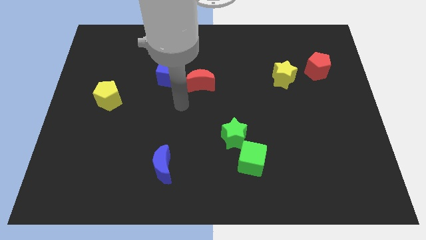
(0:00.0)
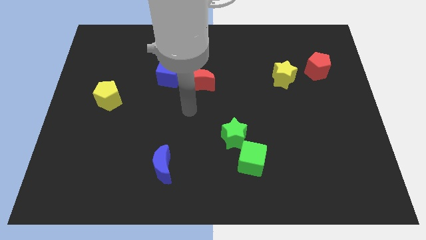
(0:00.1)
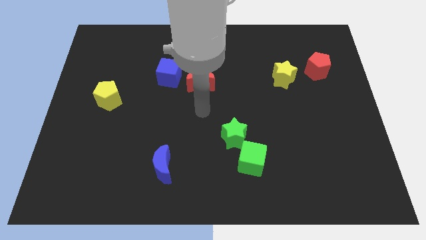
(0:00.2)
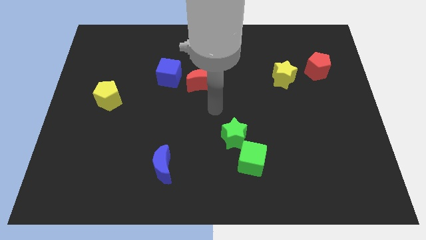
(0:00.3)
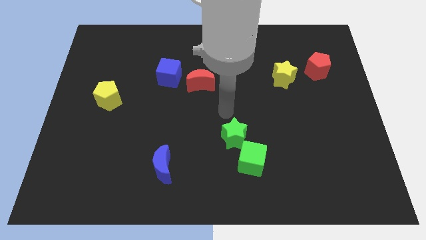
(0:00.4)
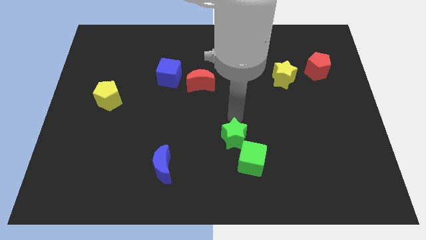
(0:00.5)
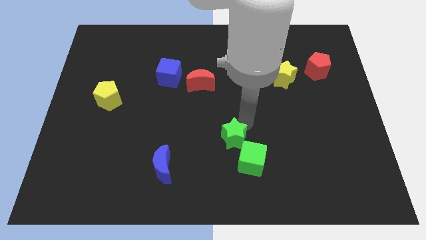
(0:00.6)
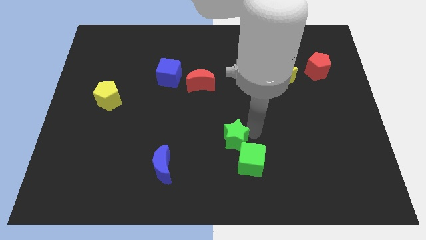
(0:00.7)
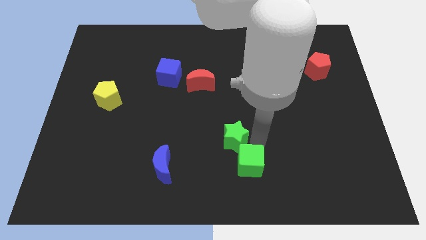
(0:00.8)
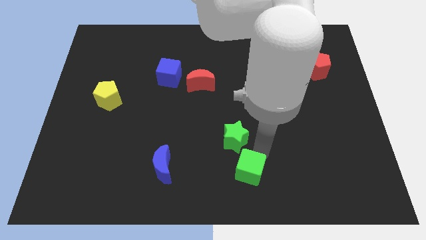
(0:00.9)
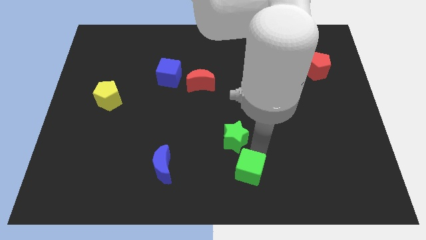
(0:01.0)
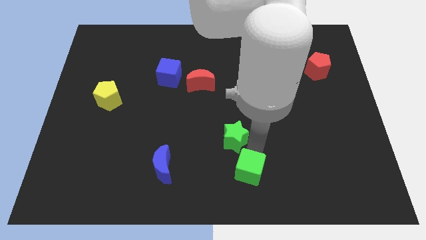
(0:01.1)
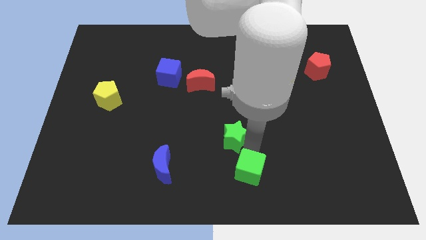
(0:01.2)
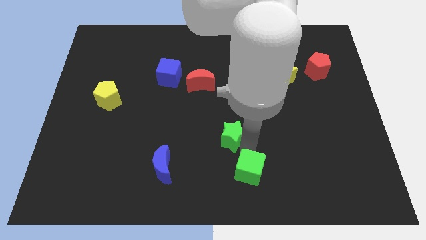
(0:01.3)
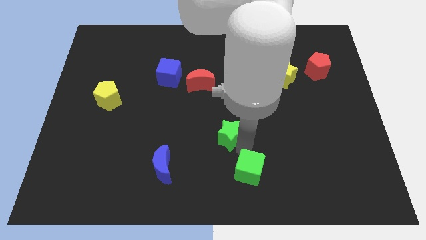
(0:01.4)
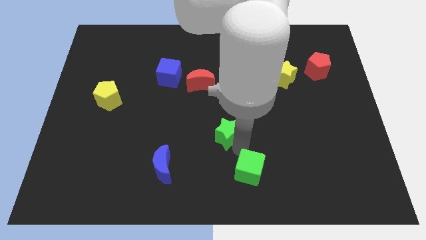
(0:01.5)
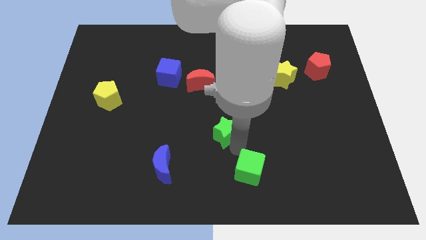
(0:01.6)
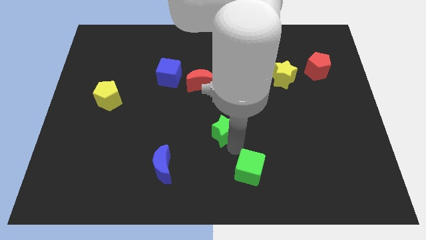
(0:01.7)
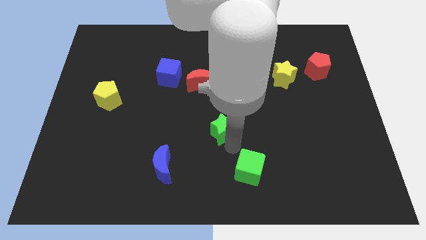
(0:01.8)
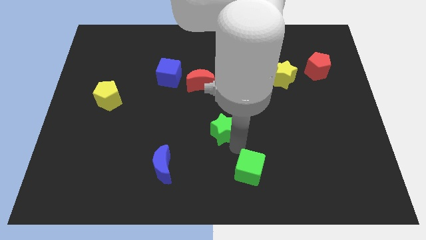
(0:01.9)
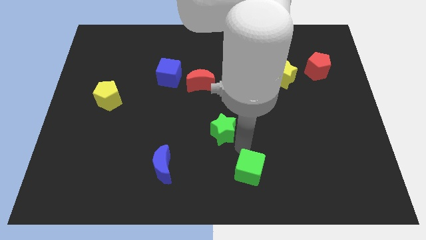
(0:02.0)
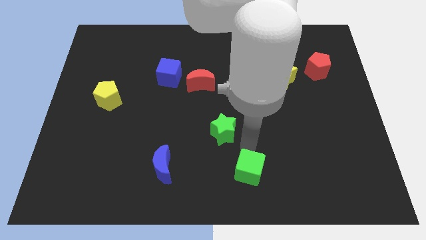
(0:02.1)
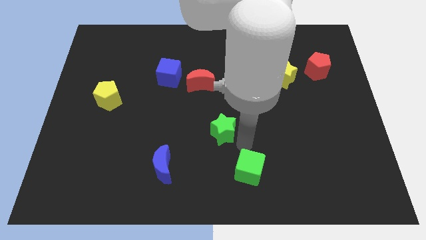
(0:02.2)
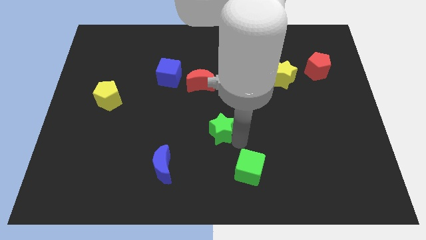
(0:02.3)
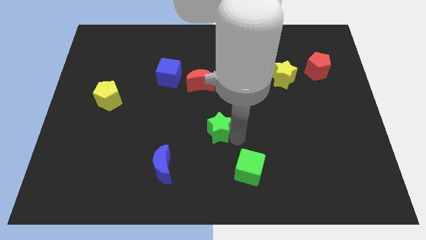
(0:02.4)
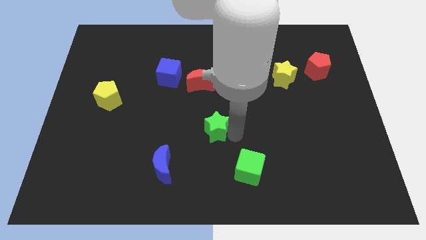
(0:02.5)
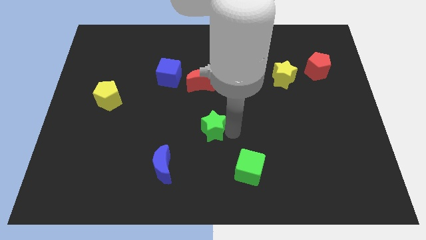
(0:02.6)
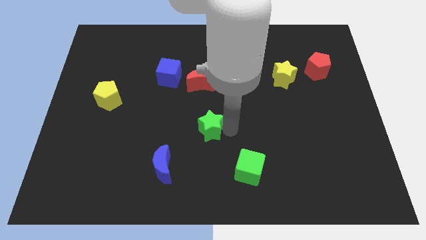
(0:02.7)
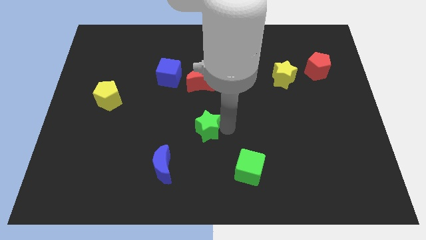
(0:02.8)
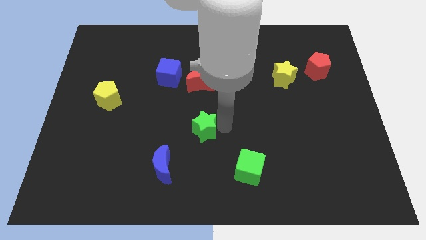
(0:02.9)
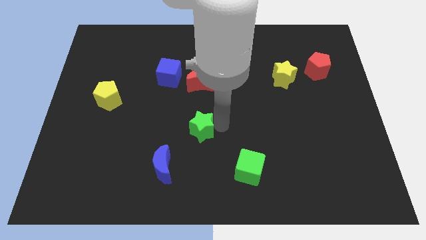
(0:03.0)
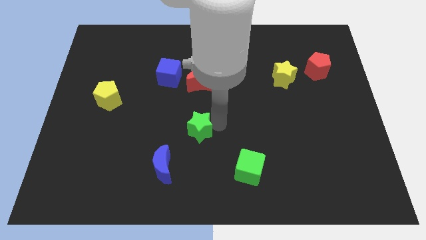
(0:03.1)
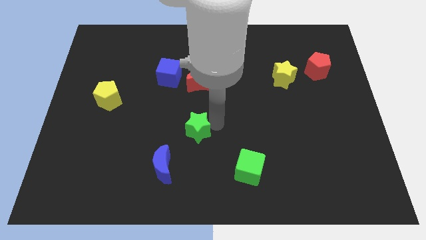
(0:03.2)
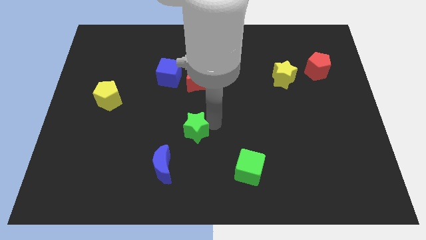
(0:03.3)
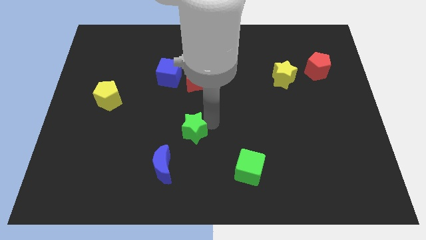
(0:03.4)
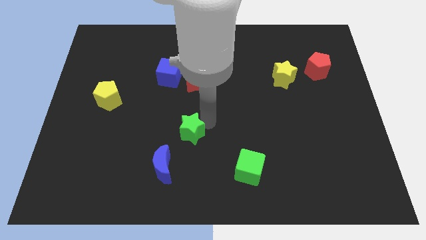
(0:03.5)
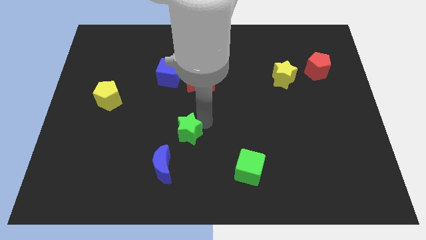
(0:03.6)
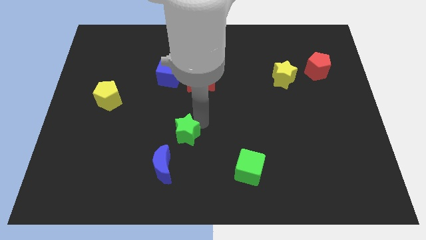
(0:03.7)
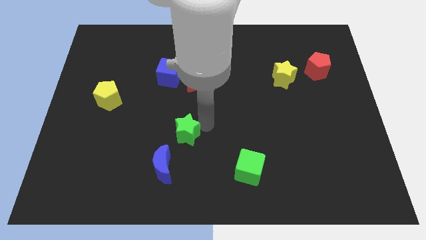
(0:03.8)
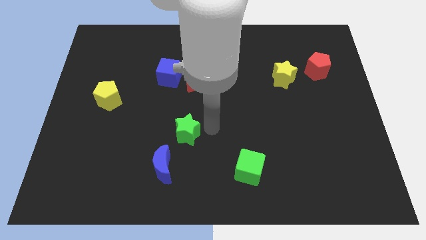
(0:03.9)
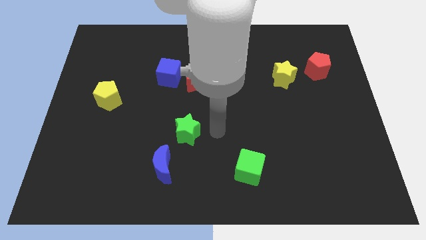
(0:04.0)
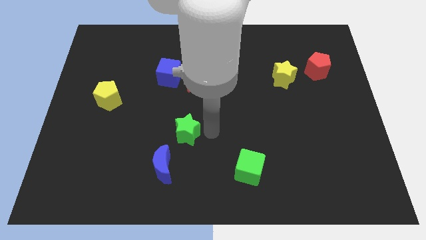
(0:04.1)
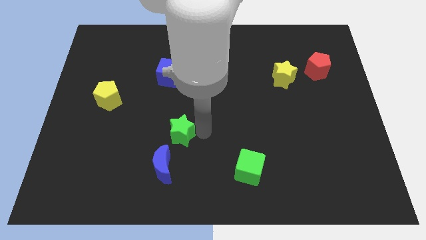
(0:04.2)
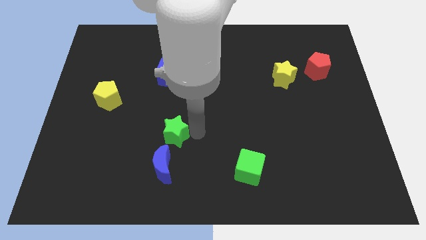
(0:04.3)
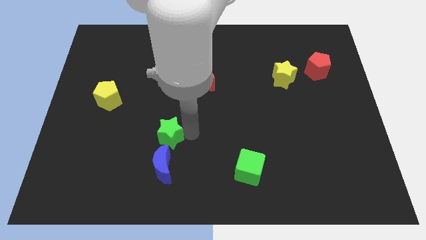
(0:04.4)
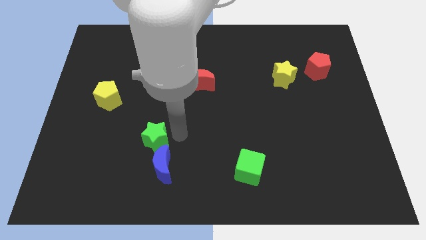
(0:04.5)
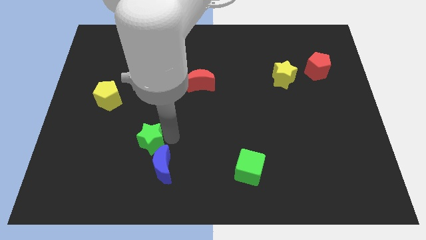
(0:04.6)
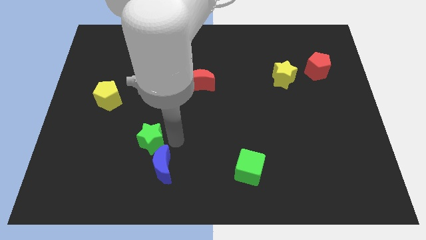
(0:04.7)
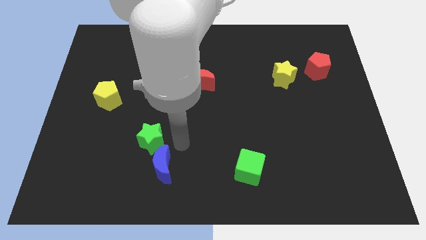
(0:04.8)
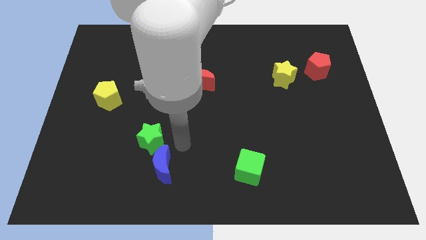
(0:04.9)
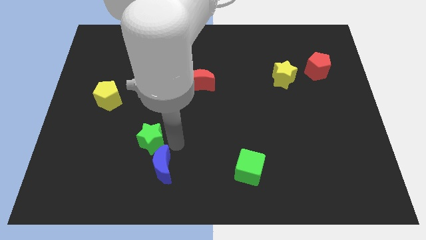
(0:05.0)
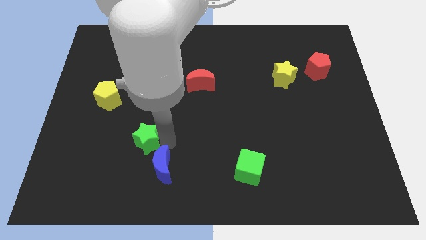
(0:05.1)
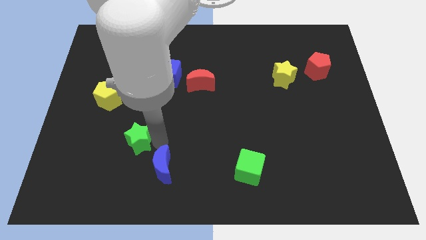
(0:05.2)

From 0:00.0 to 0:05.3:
move the green star left

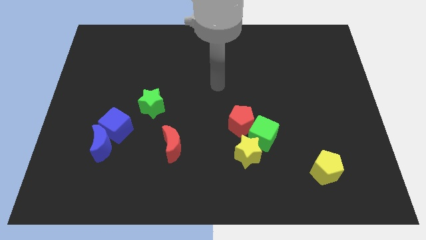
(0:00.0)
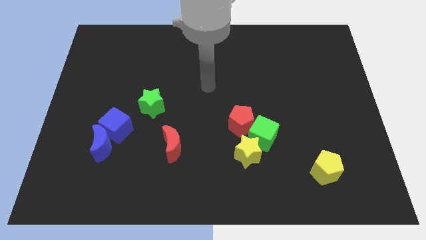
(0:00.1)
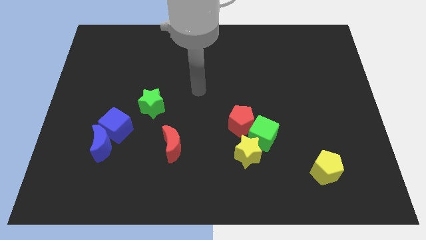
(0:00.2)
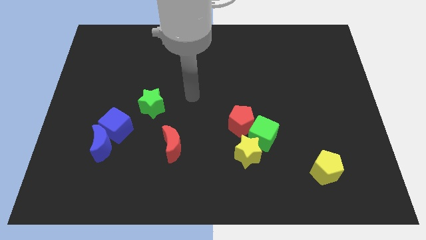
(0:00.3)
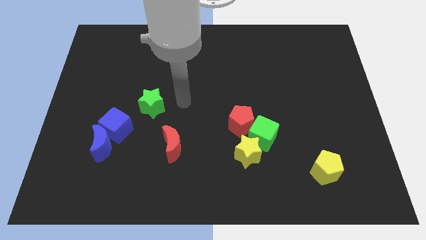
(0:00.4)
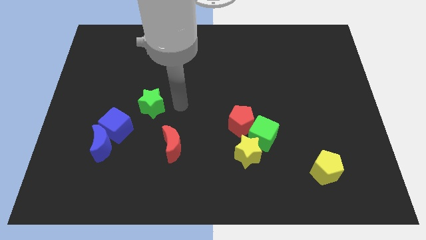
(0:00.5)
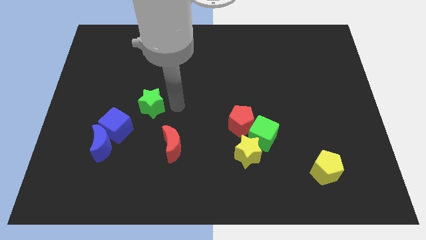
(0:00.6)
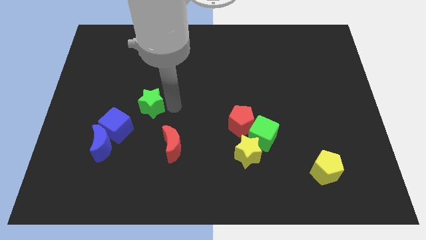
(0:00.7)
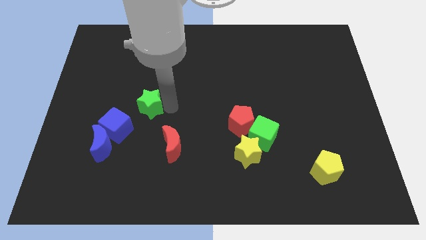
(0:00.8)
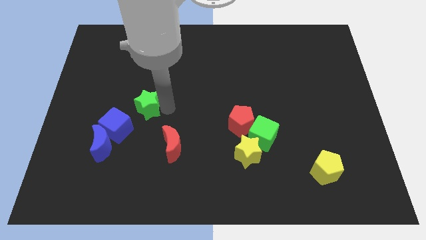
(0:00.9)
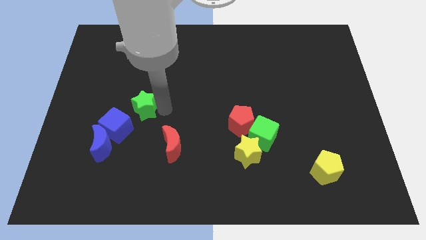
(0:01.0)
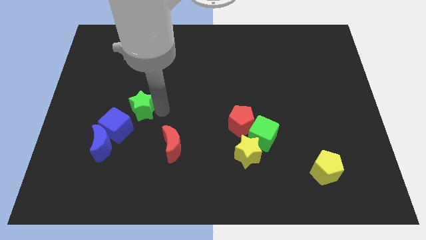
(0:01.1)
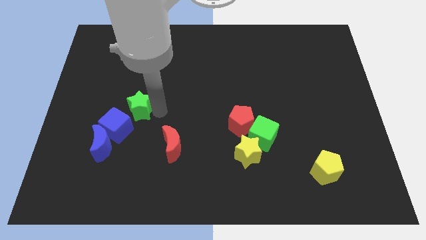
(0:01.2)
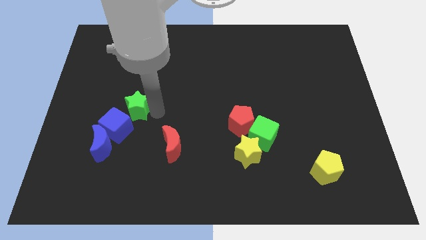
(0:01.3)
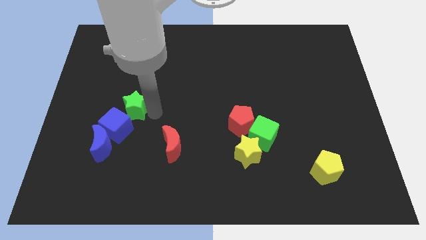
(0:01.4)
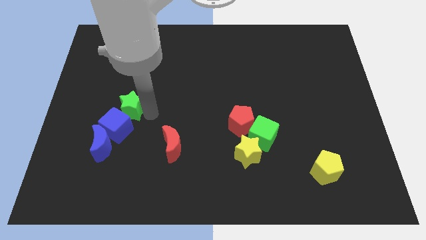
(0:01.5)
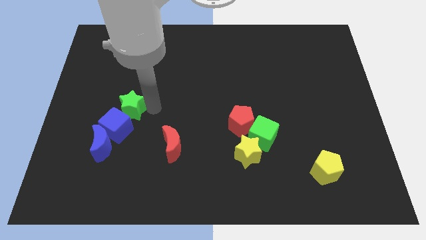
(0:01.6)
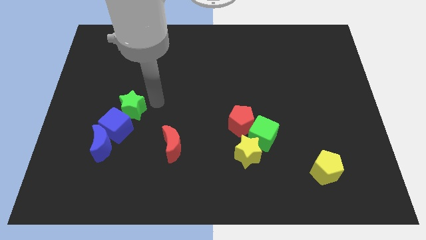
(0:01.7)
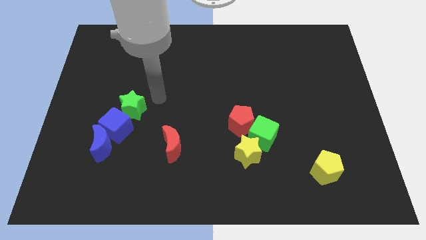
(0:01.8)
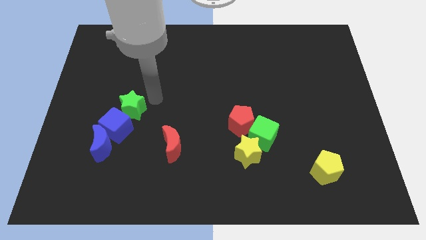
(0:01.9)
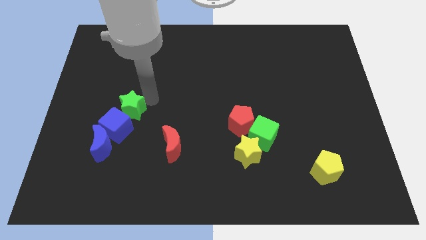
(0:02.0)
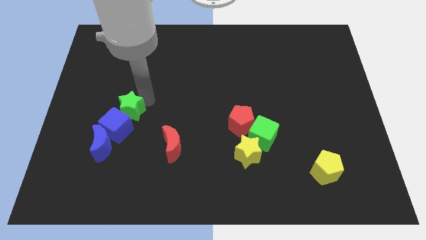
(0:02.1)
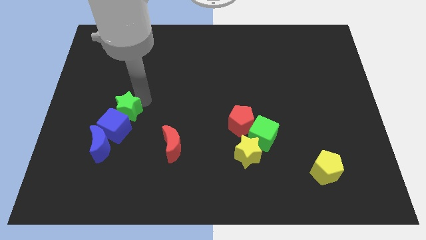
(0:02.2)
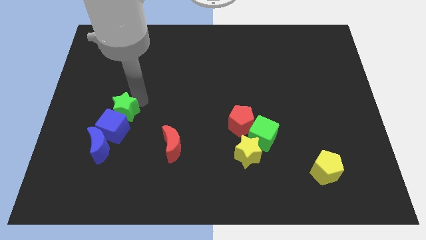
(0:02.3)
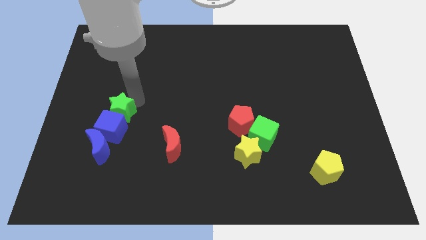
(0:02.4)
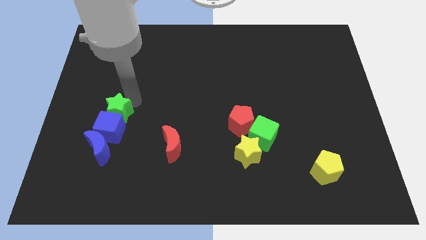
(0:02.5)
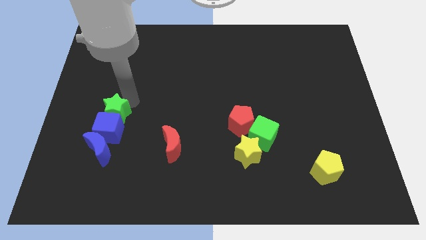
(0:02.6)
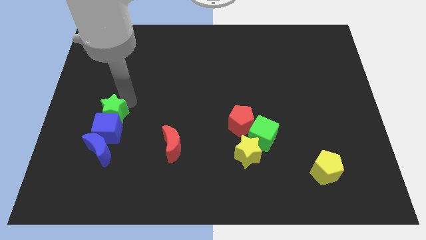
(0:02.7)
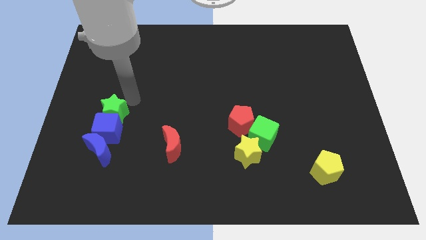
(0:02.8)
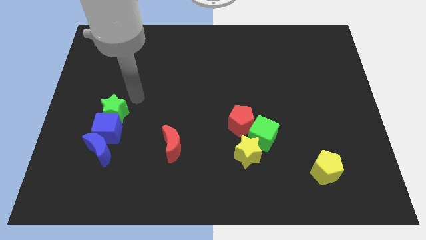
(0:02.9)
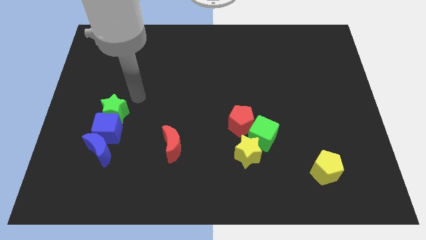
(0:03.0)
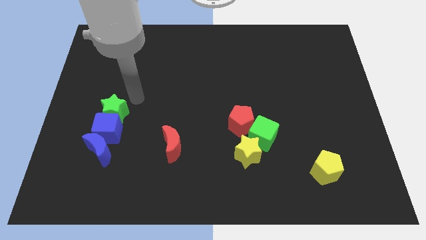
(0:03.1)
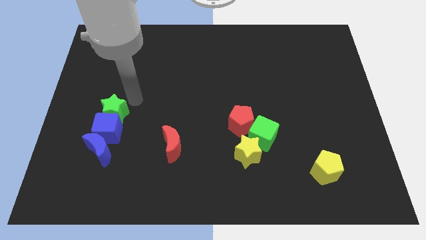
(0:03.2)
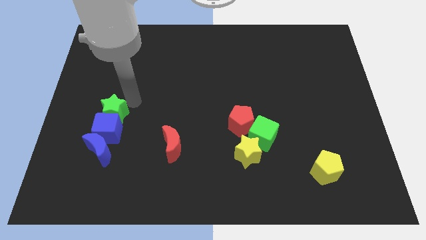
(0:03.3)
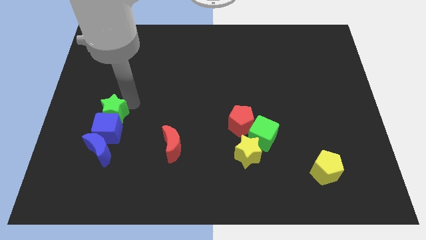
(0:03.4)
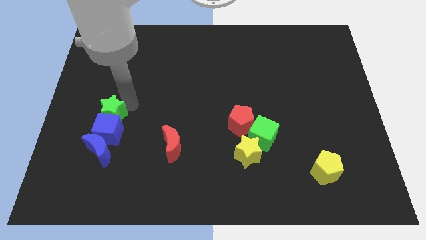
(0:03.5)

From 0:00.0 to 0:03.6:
move the green star downwards and to the left diagonally somewhat
